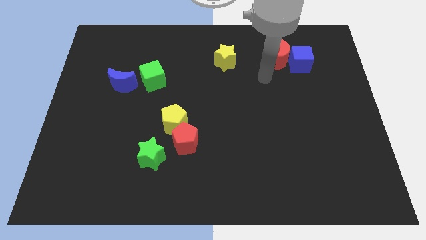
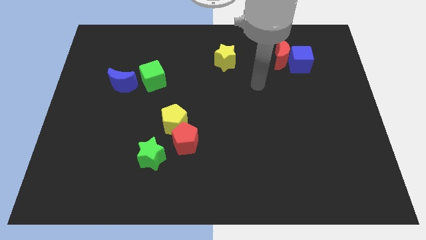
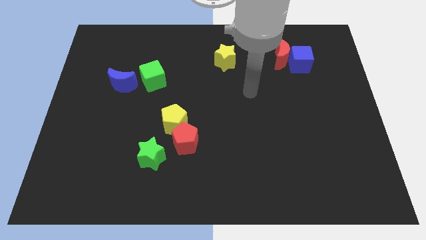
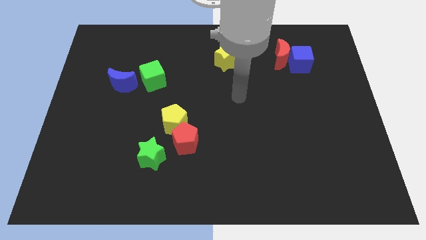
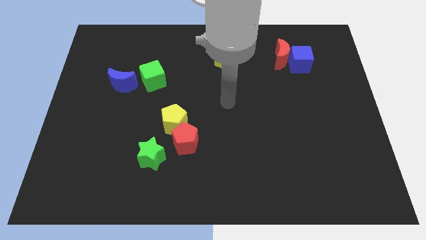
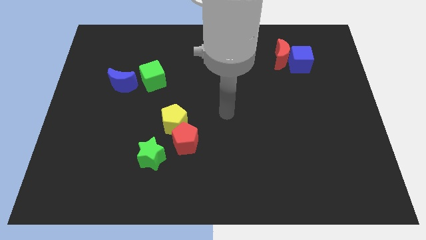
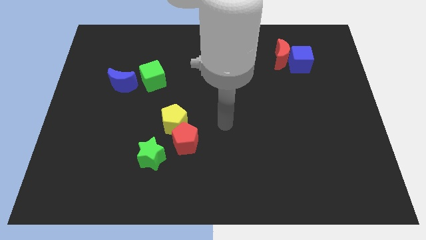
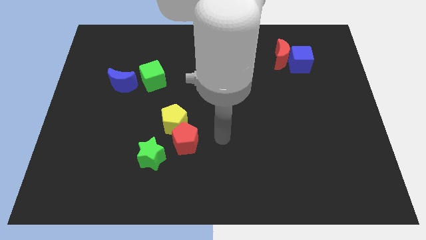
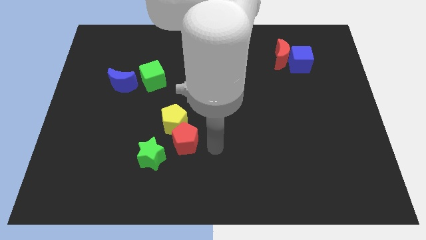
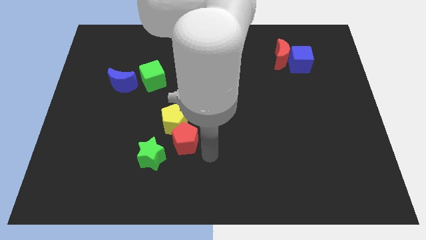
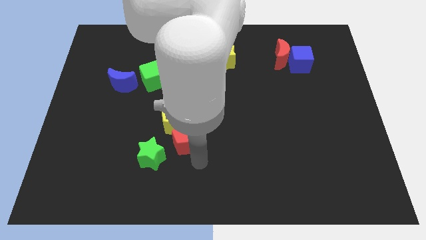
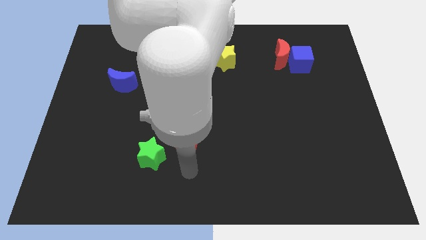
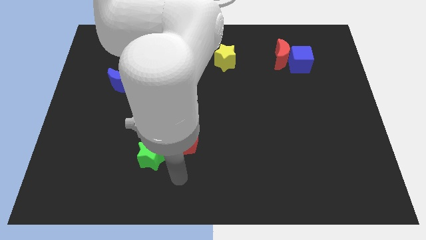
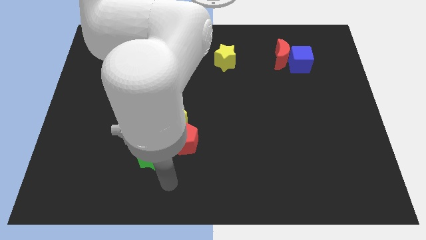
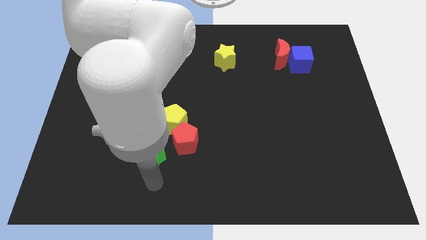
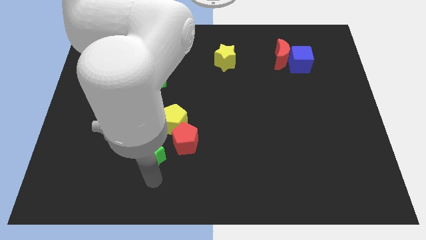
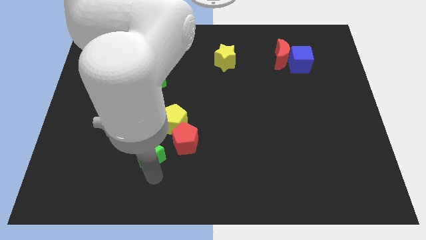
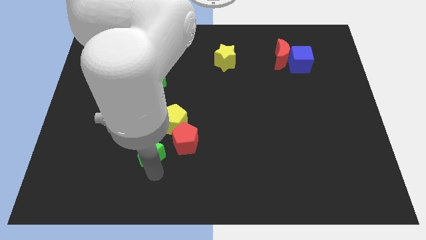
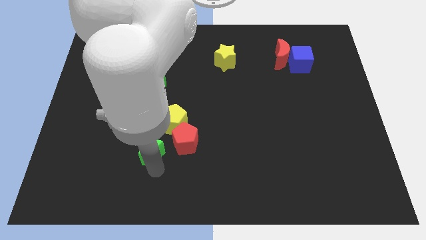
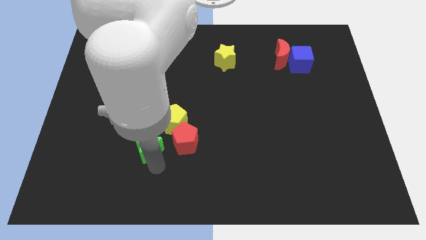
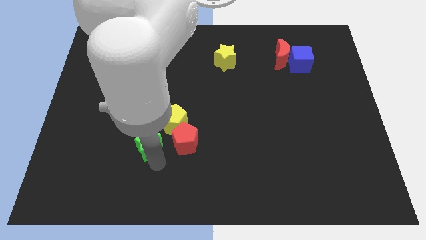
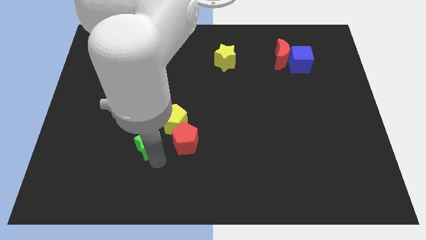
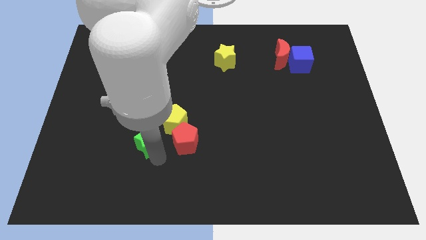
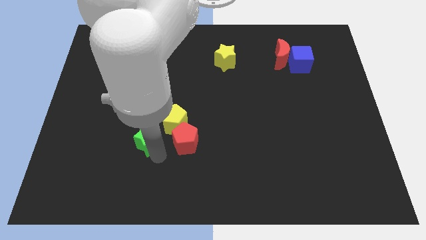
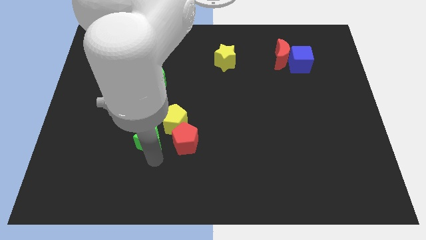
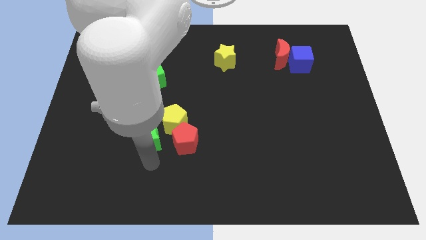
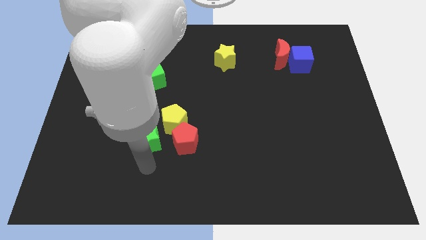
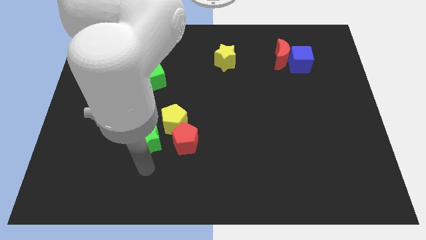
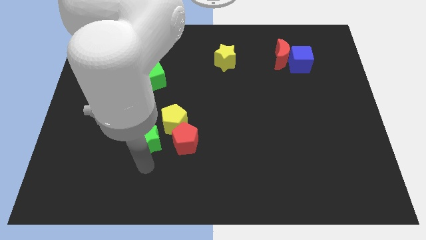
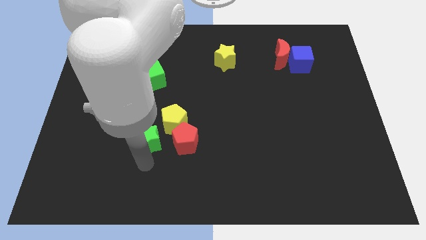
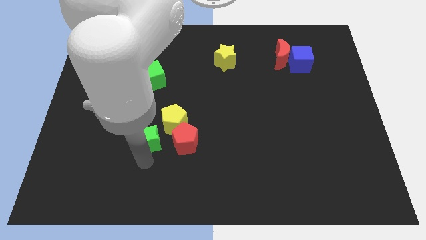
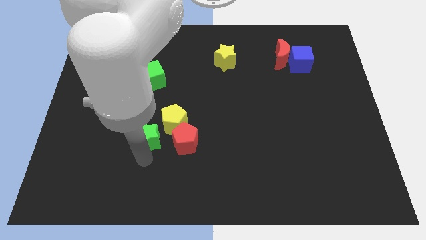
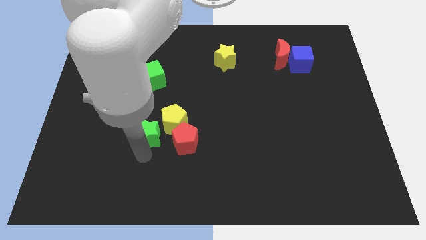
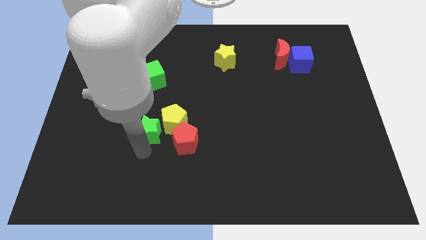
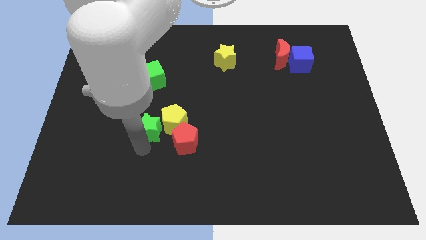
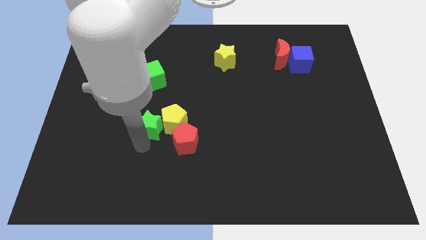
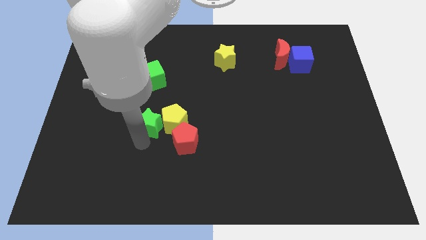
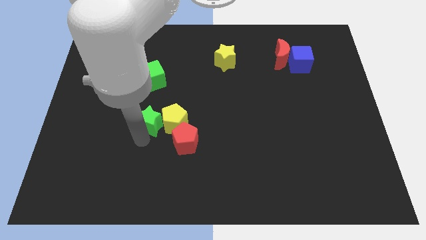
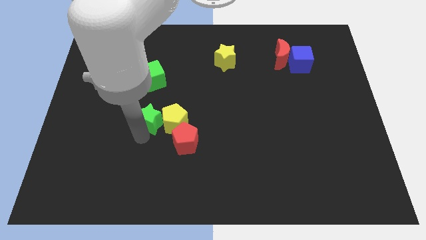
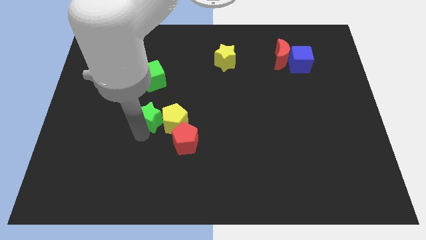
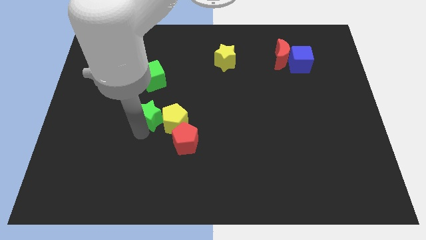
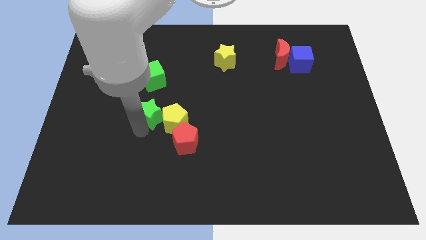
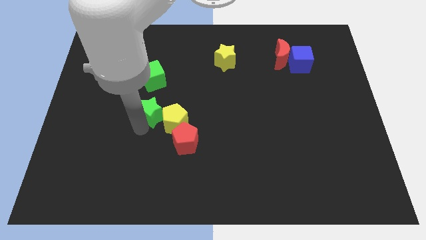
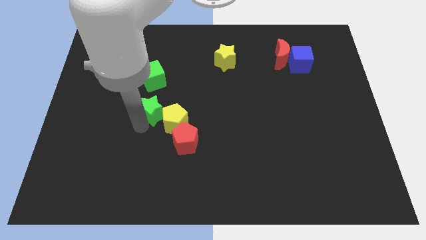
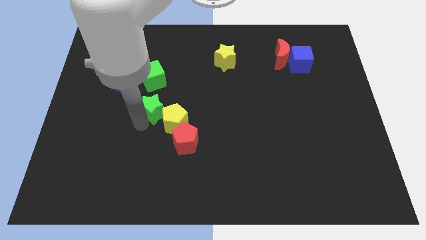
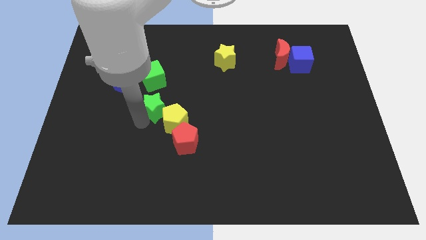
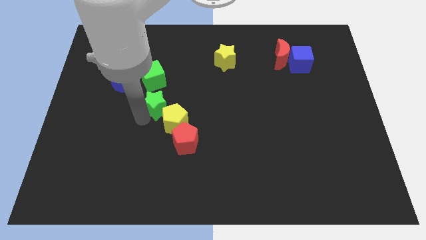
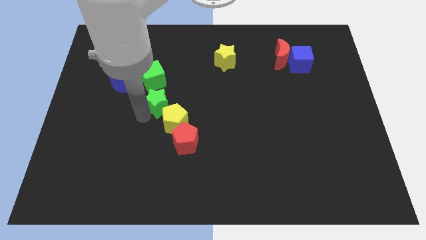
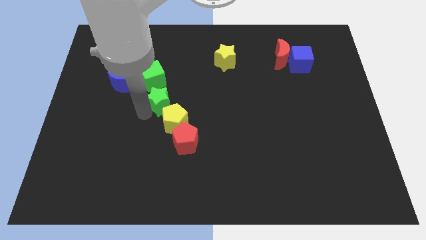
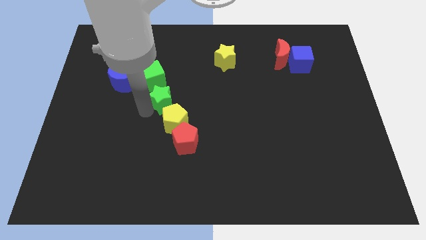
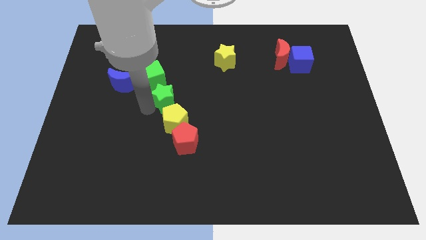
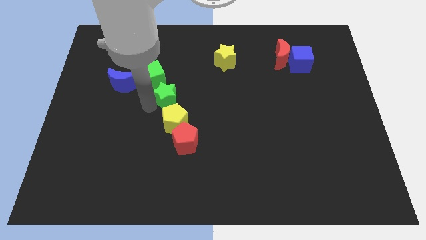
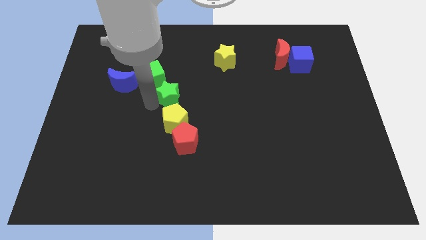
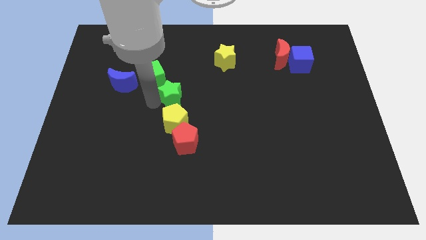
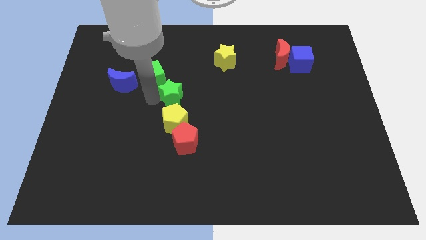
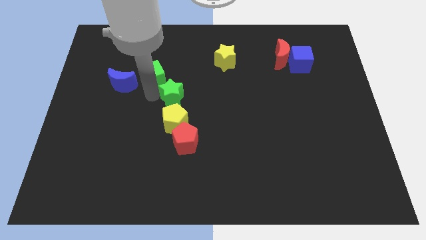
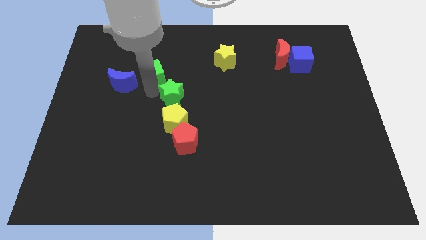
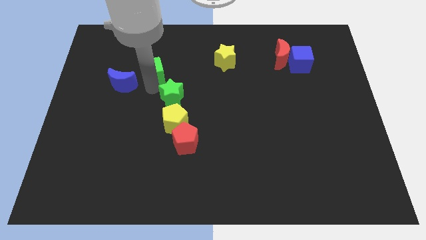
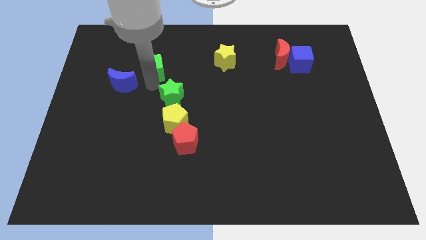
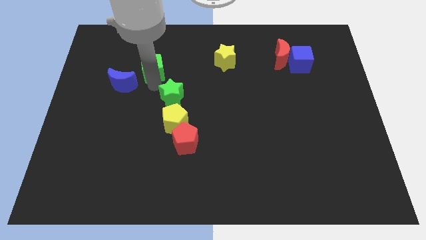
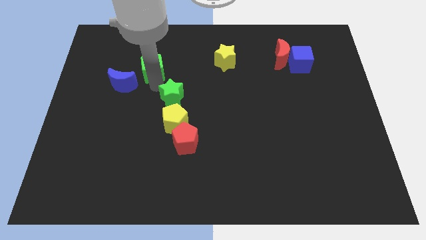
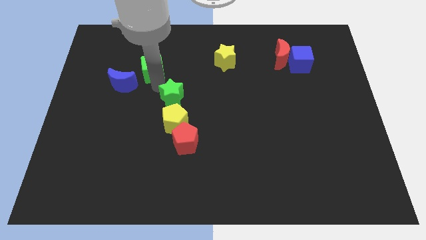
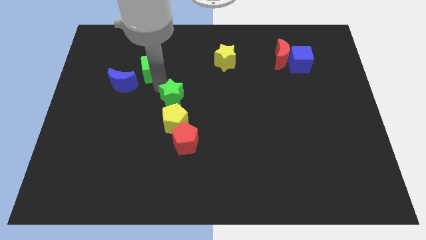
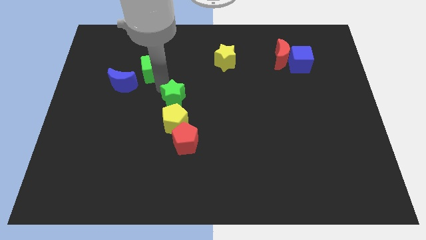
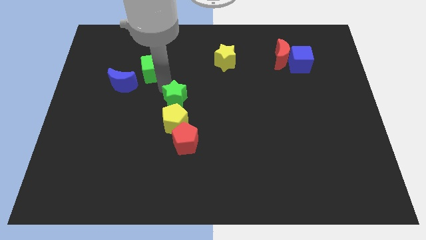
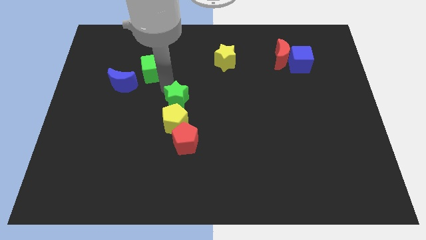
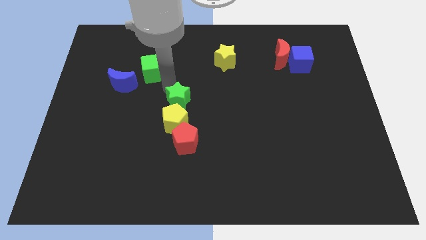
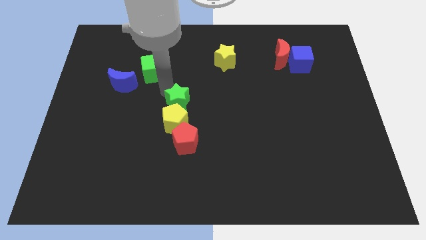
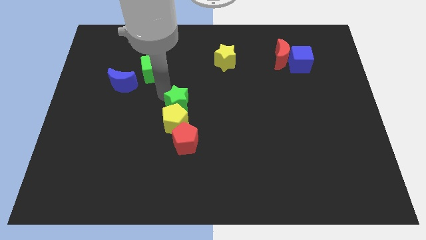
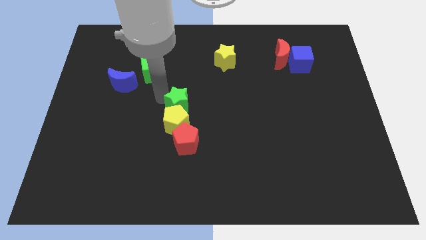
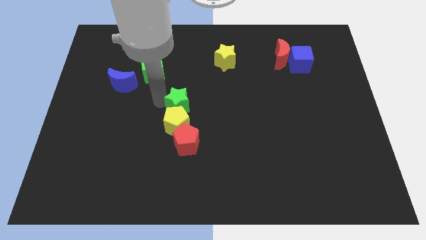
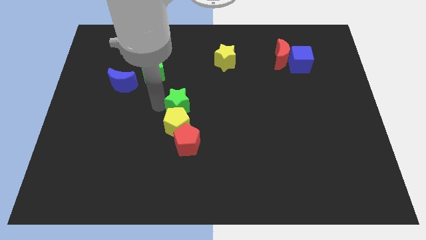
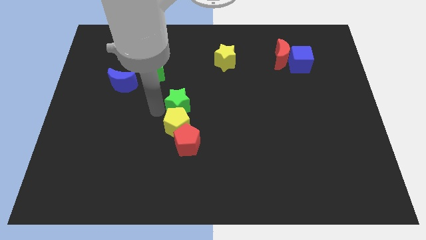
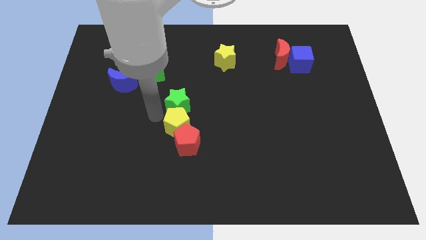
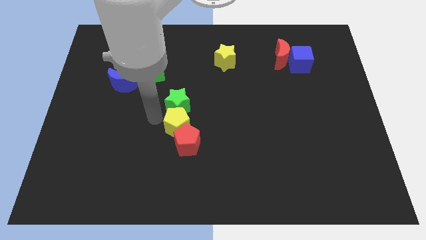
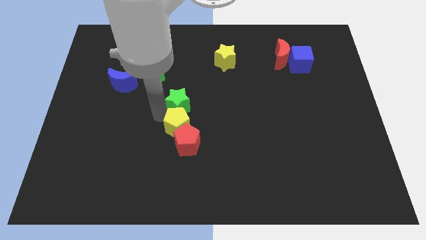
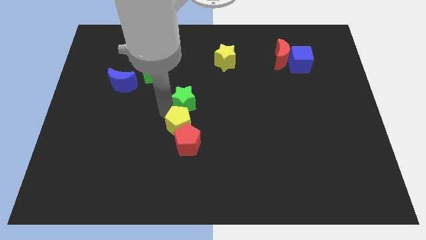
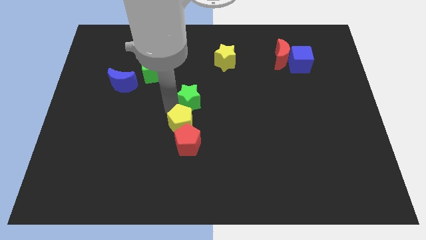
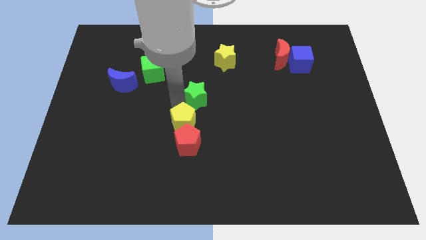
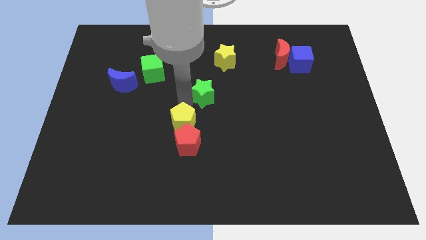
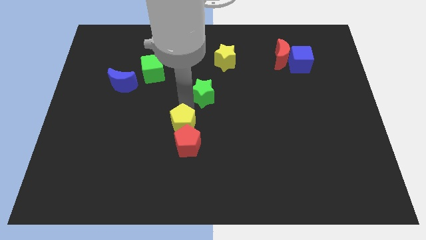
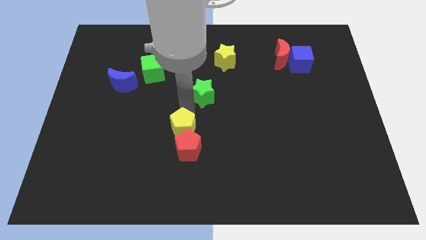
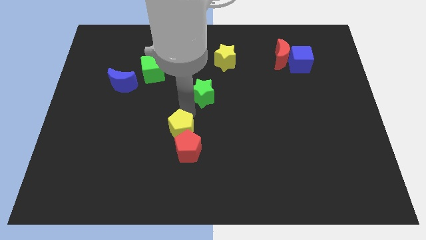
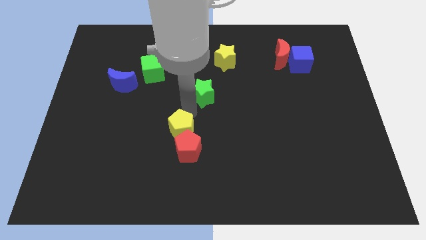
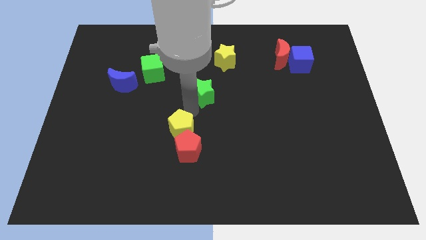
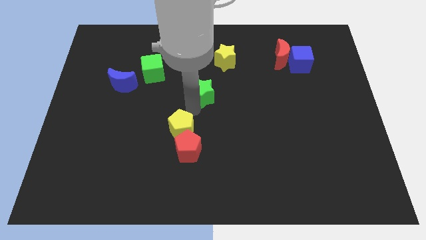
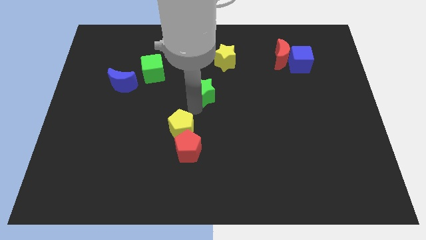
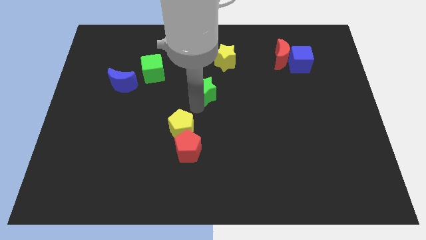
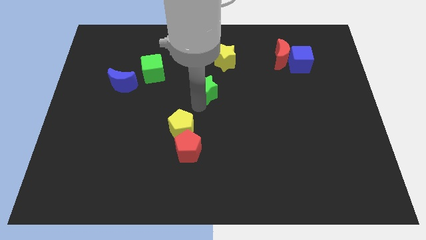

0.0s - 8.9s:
slide the green star up and then right
